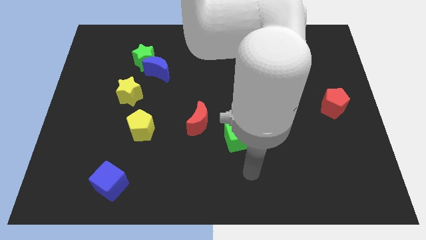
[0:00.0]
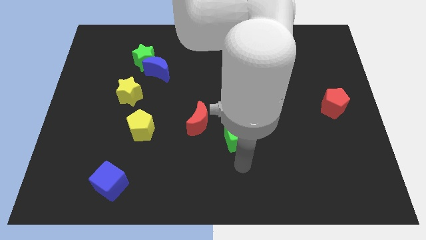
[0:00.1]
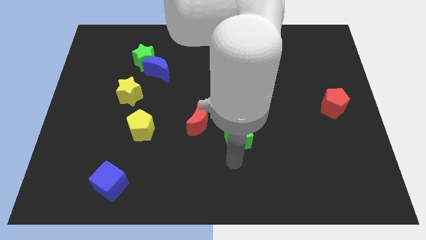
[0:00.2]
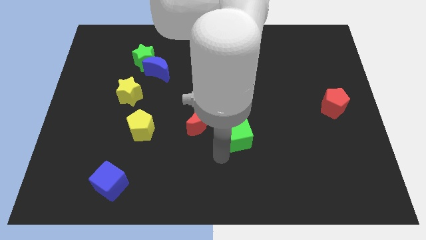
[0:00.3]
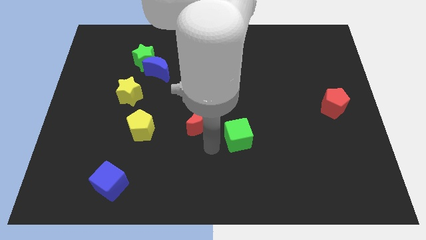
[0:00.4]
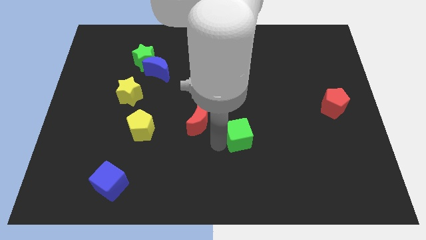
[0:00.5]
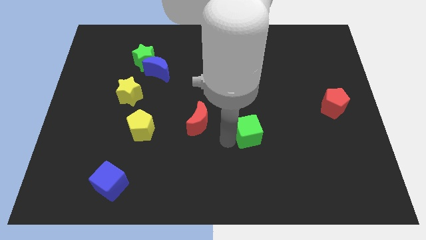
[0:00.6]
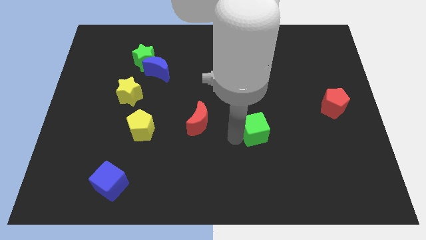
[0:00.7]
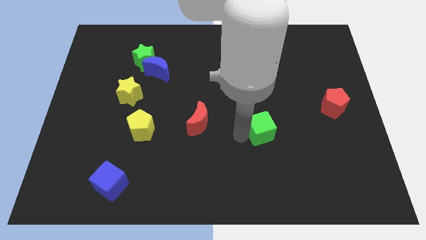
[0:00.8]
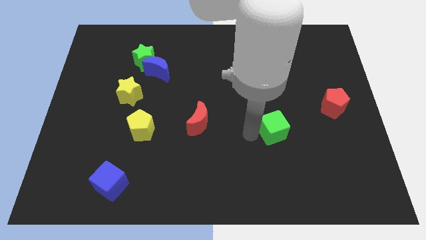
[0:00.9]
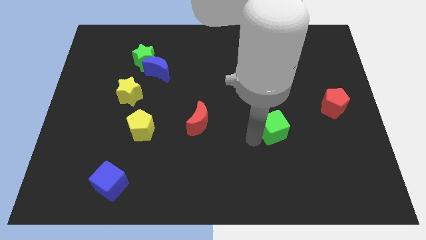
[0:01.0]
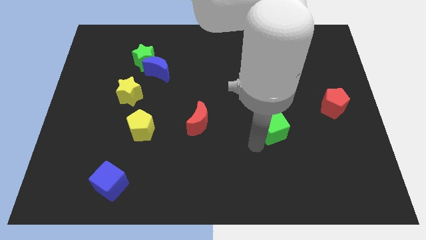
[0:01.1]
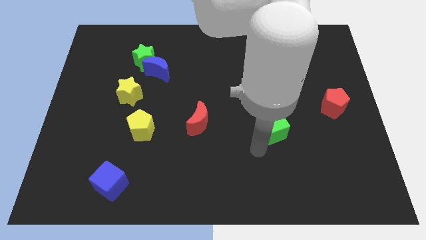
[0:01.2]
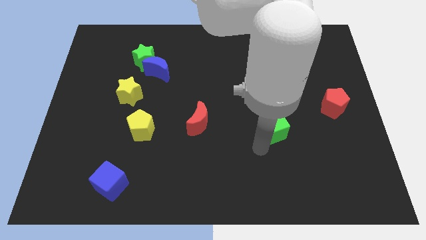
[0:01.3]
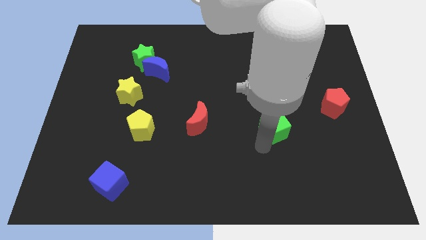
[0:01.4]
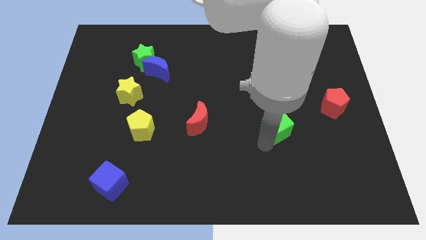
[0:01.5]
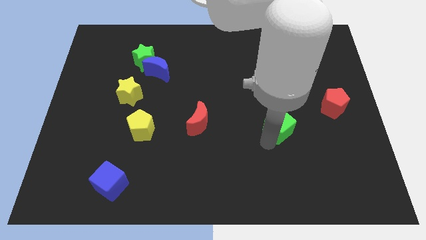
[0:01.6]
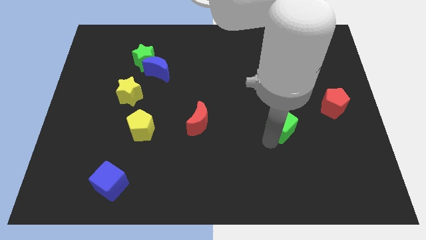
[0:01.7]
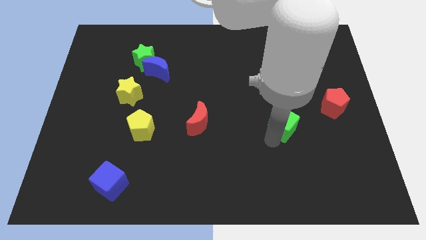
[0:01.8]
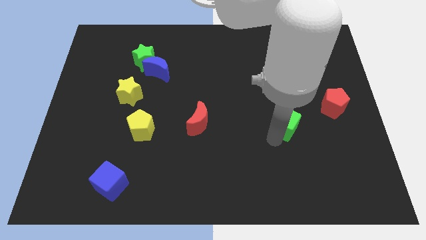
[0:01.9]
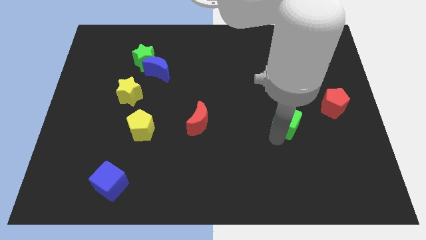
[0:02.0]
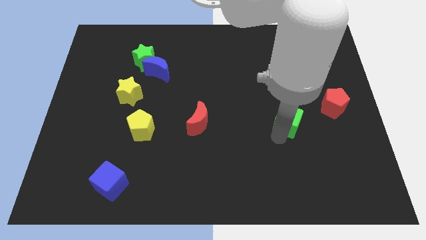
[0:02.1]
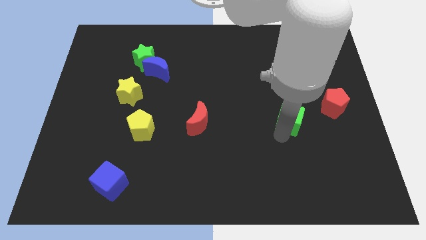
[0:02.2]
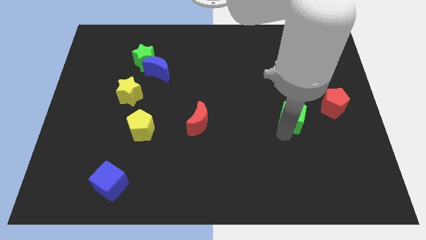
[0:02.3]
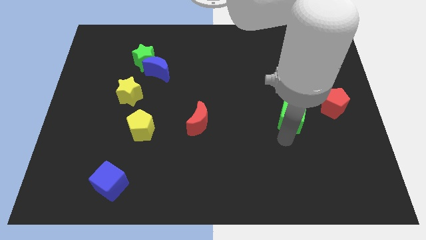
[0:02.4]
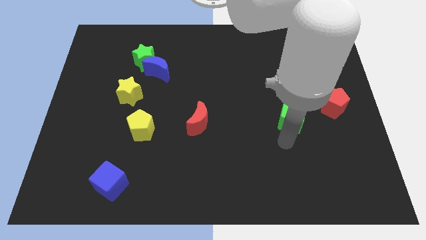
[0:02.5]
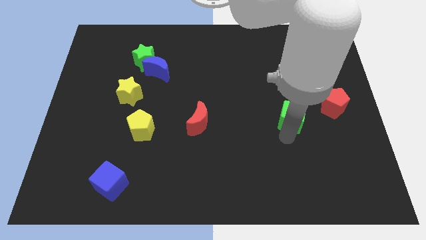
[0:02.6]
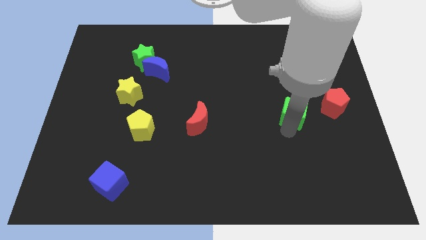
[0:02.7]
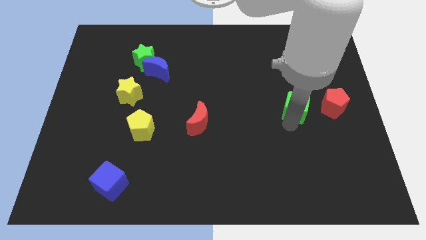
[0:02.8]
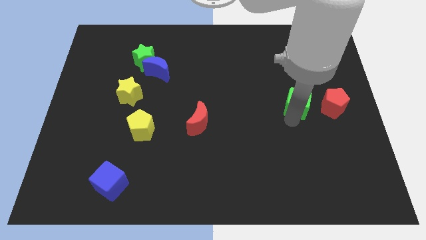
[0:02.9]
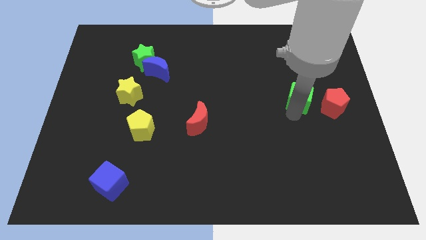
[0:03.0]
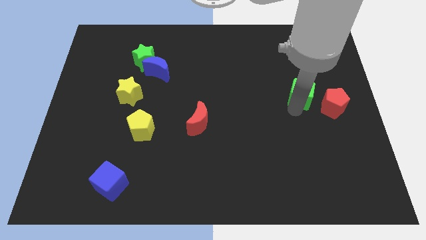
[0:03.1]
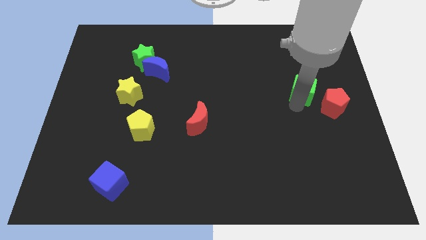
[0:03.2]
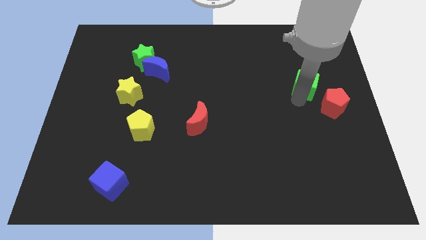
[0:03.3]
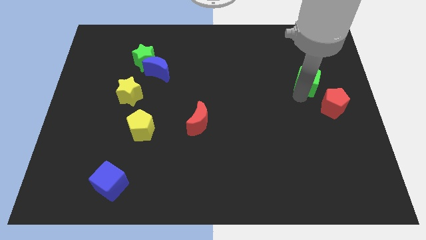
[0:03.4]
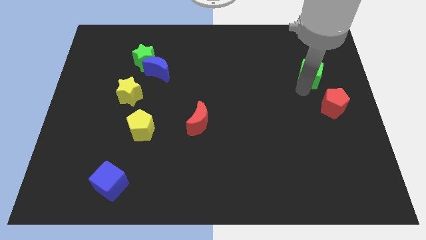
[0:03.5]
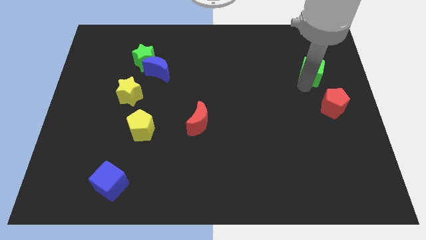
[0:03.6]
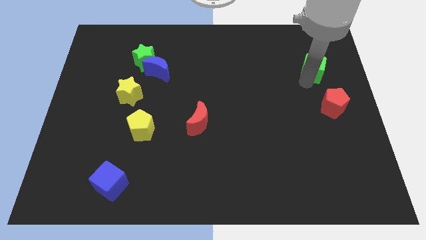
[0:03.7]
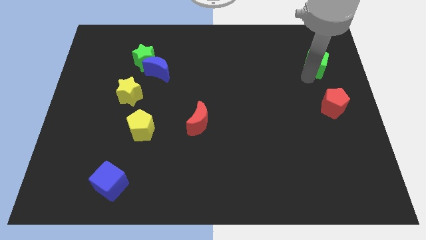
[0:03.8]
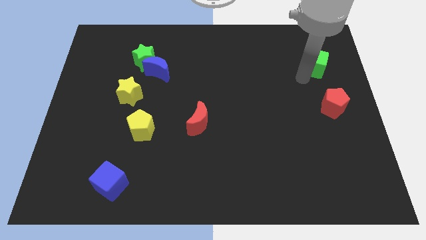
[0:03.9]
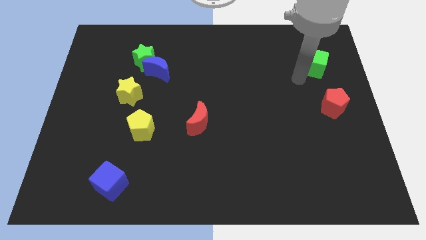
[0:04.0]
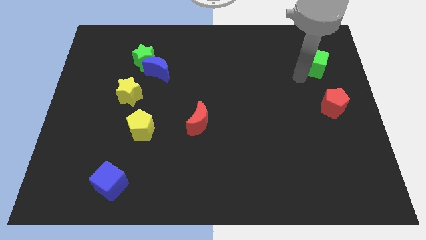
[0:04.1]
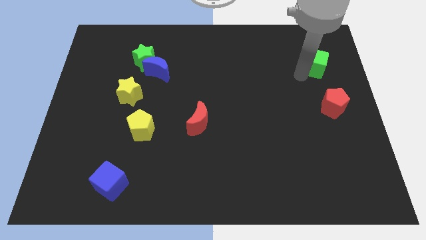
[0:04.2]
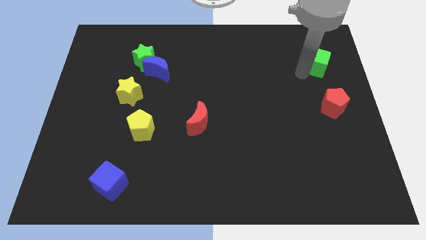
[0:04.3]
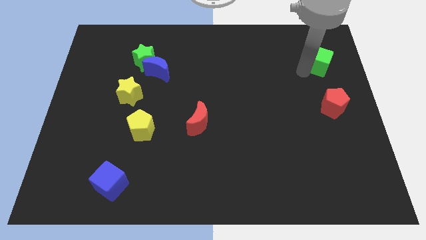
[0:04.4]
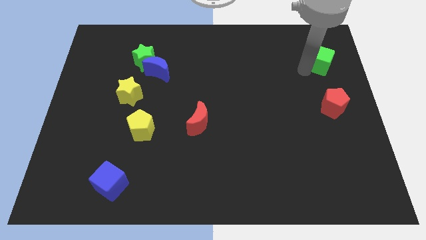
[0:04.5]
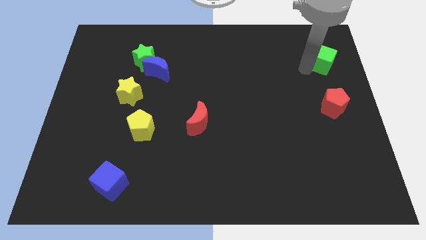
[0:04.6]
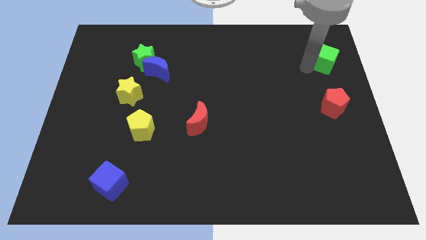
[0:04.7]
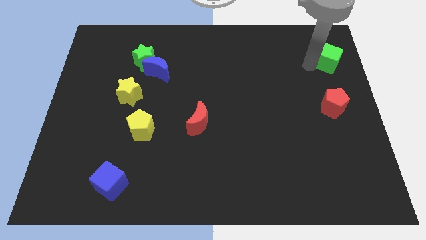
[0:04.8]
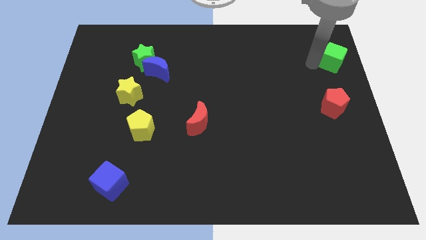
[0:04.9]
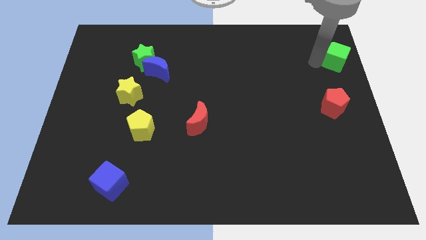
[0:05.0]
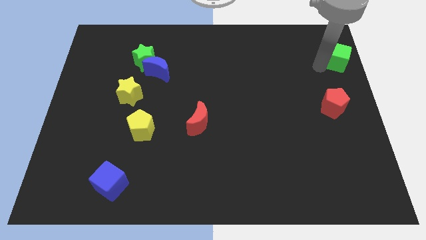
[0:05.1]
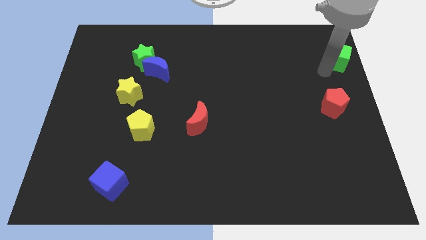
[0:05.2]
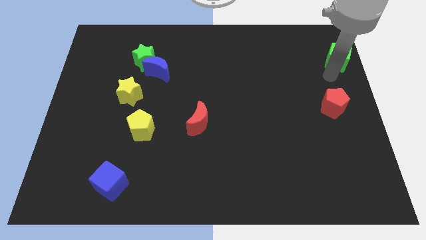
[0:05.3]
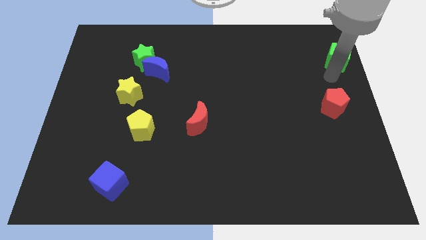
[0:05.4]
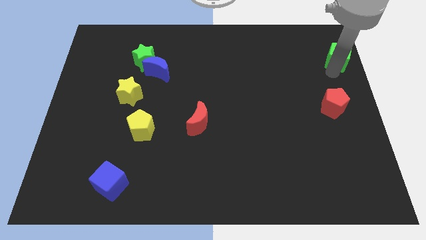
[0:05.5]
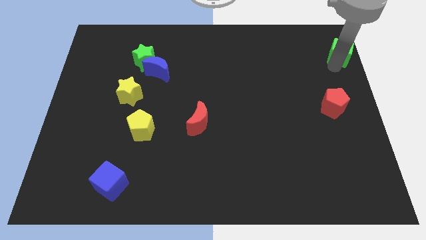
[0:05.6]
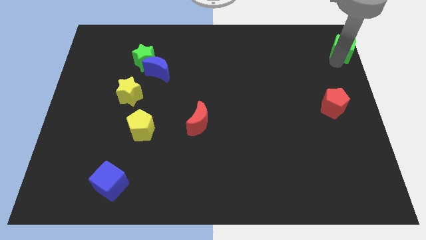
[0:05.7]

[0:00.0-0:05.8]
slide the green cube to the upper right corner
